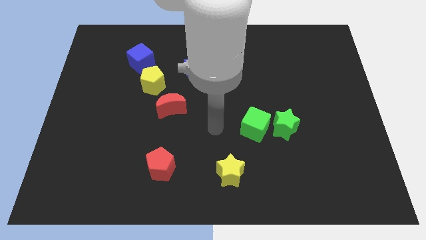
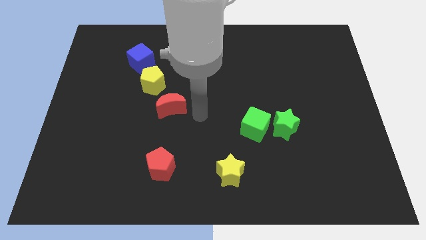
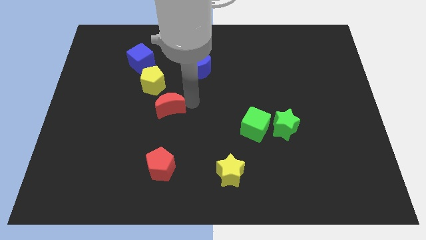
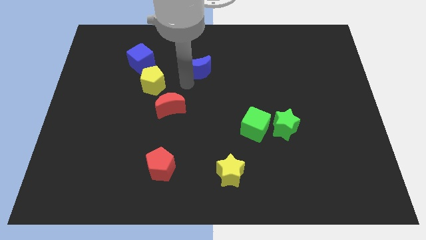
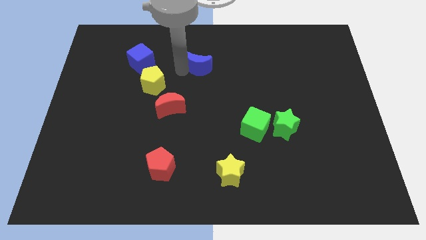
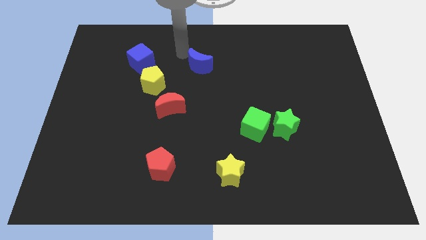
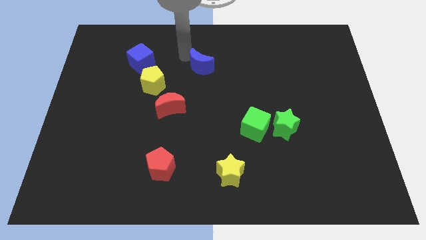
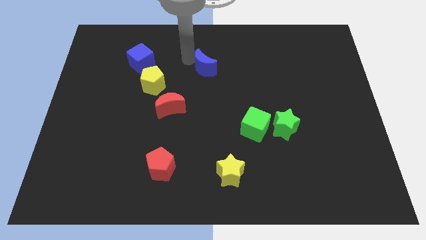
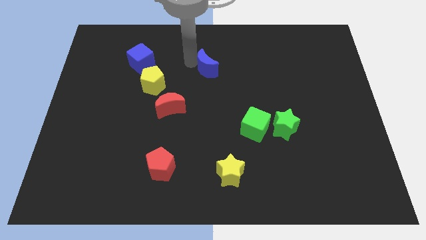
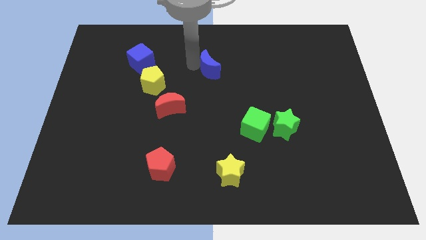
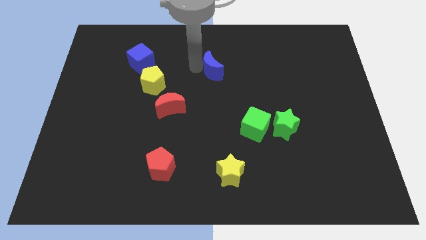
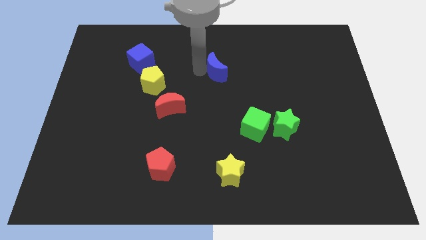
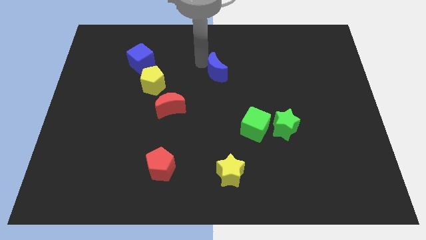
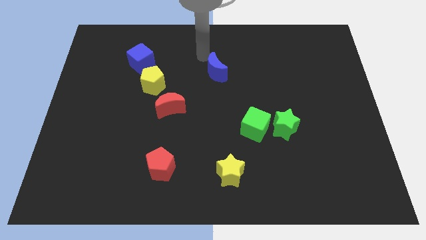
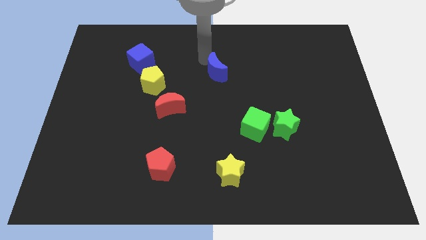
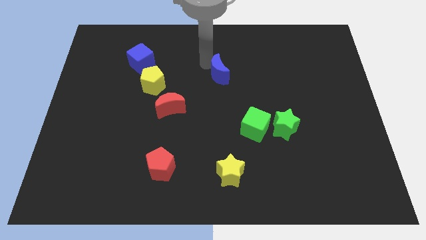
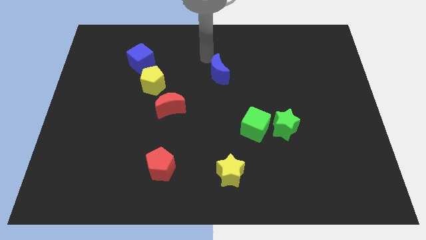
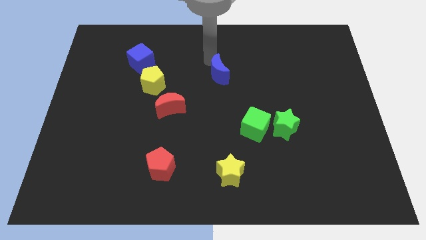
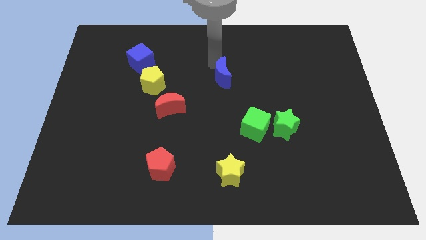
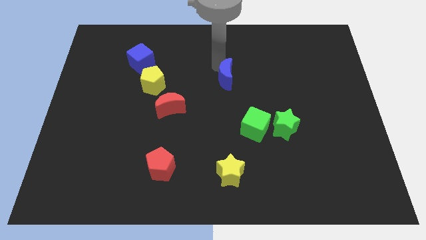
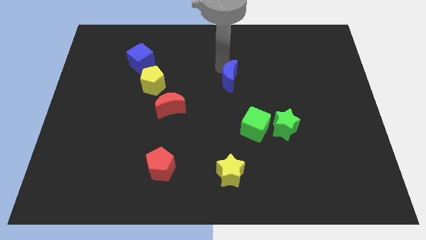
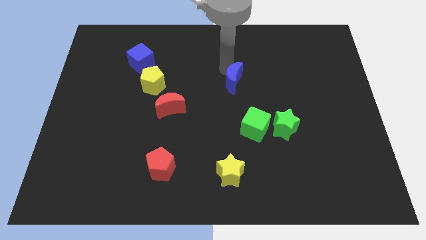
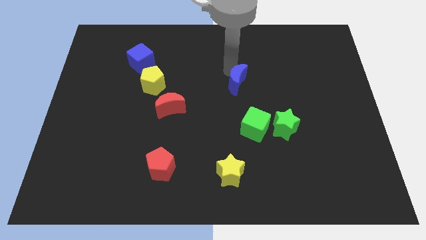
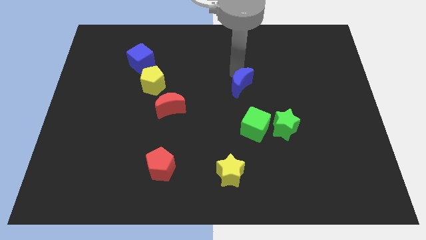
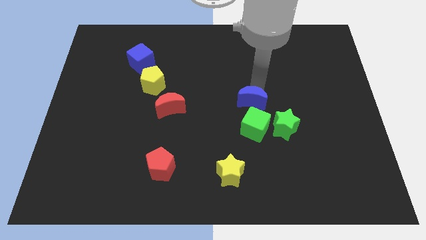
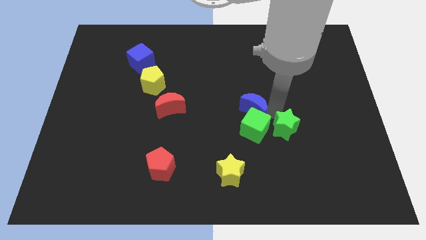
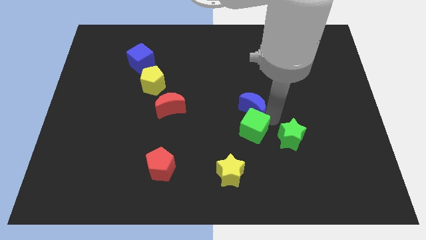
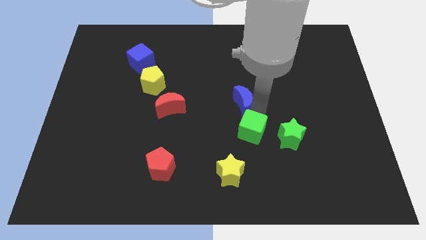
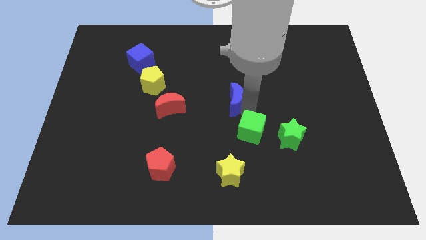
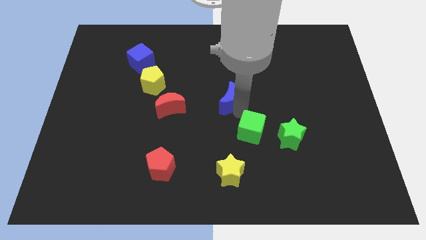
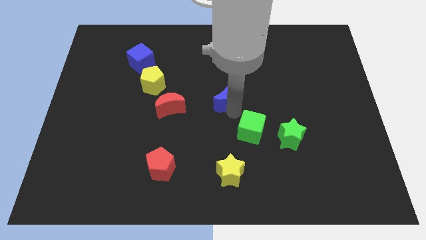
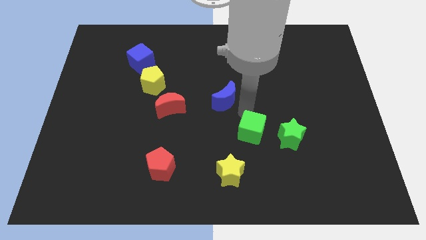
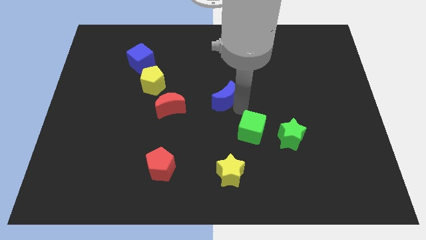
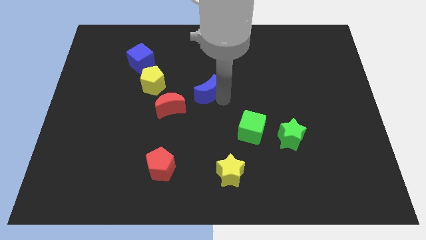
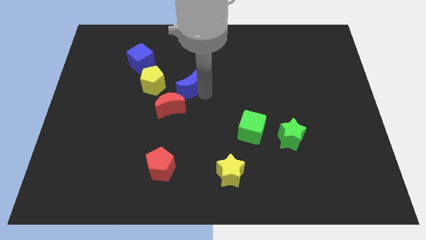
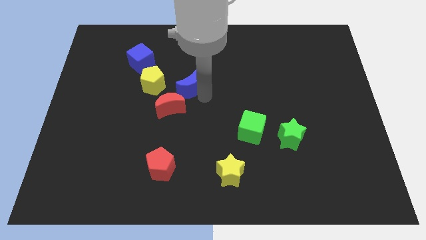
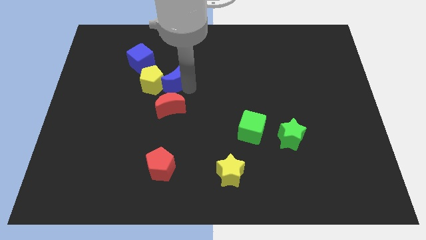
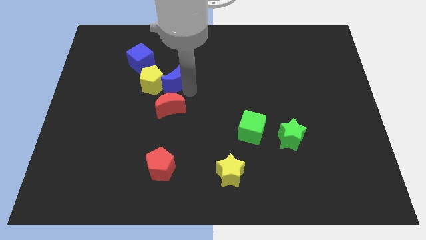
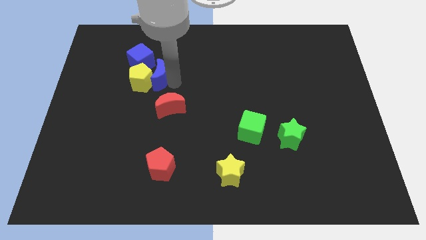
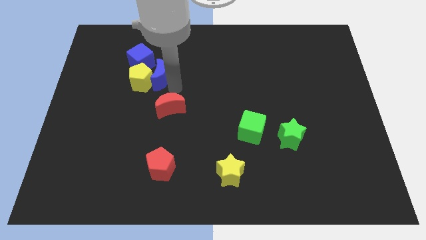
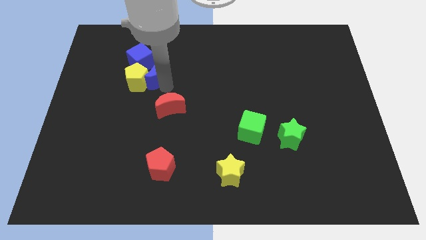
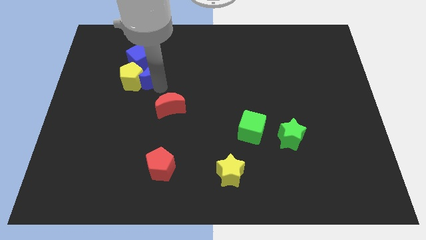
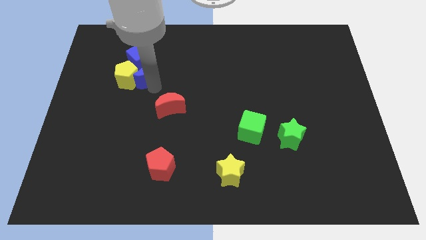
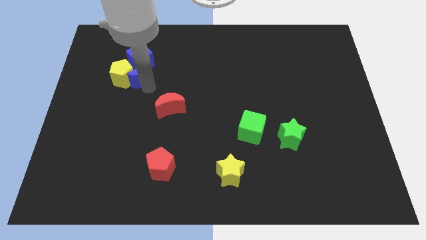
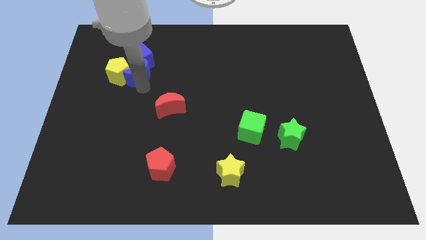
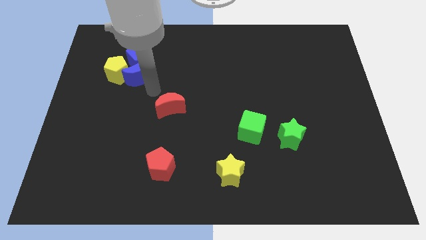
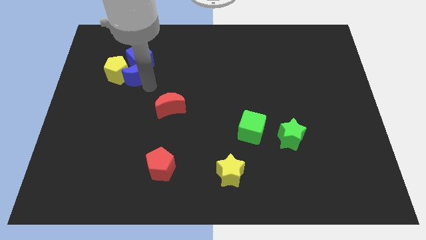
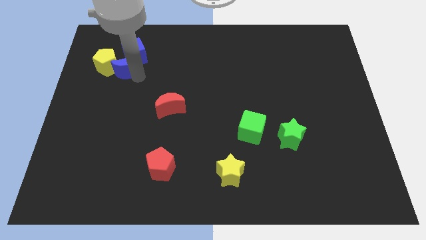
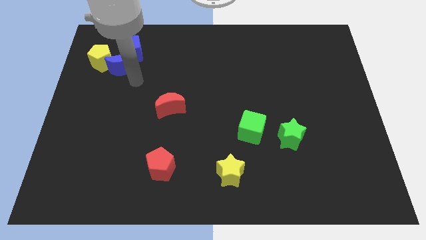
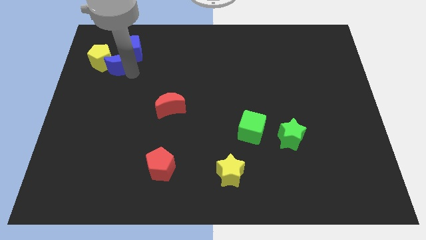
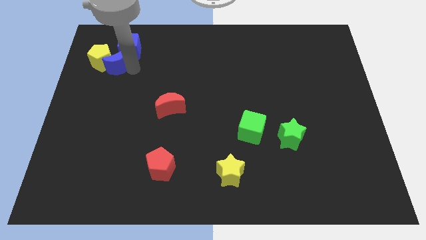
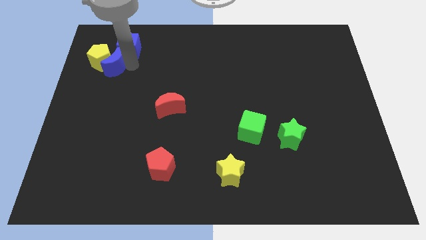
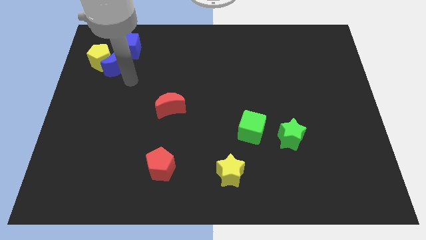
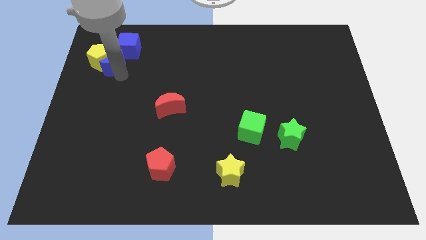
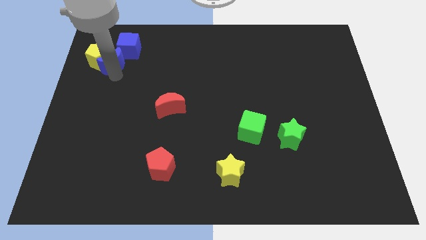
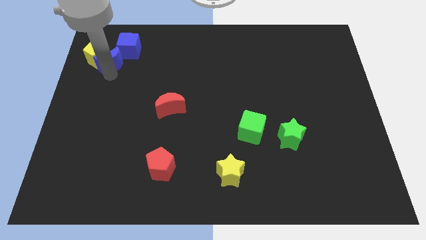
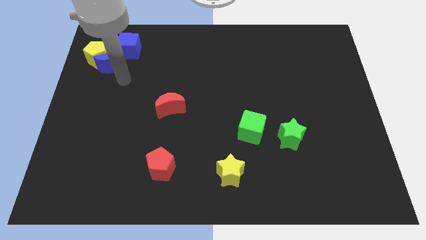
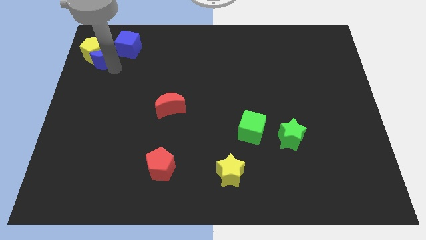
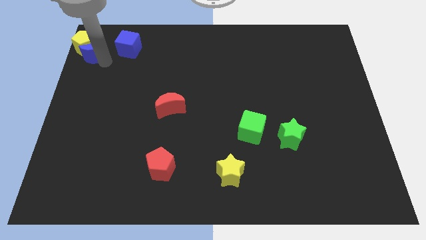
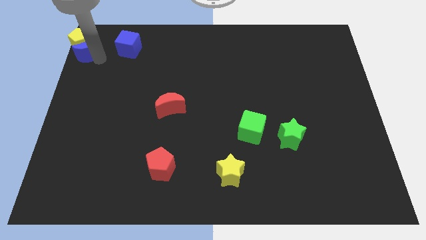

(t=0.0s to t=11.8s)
move the blue moon to the top left

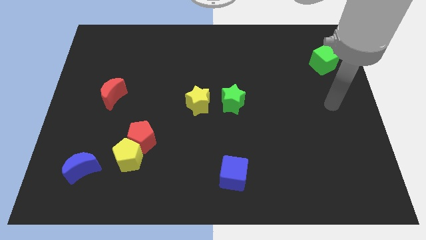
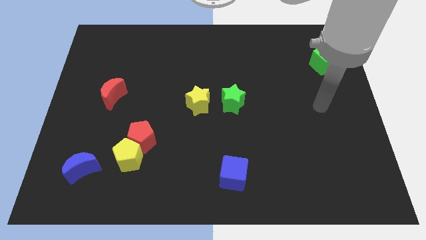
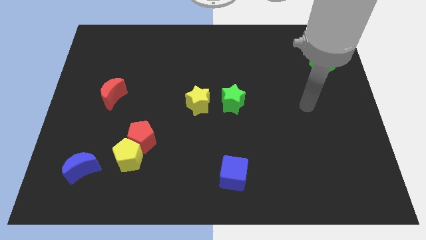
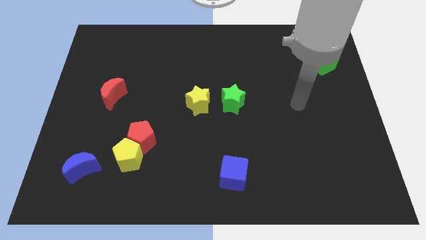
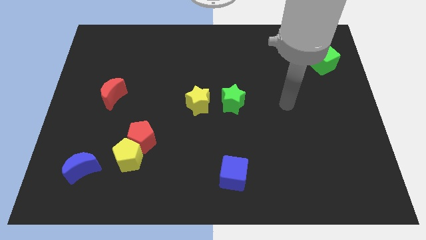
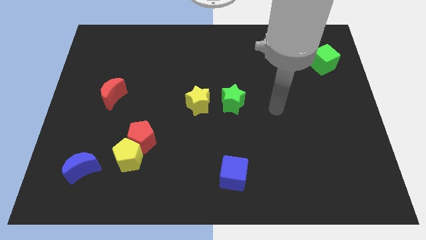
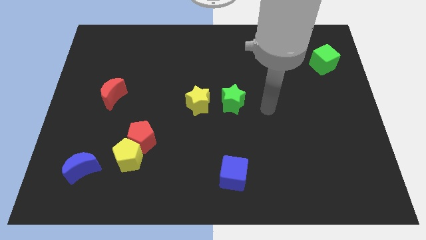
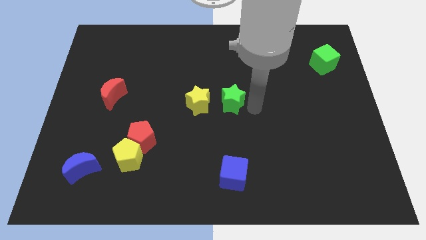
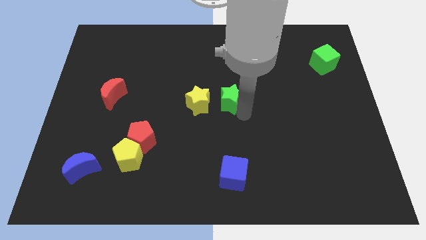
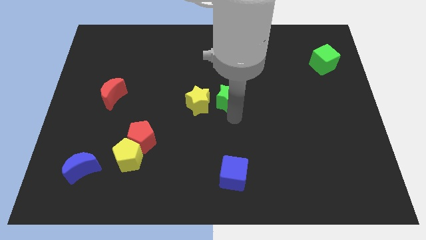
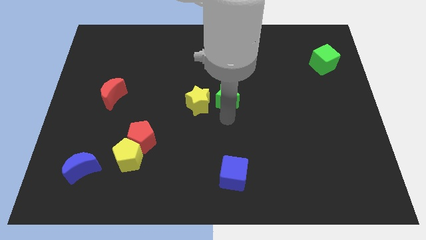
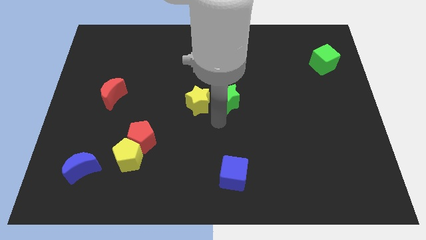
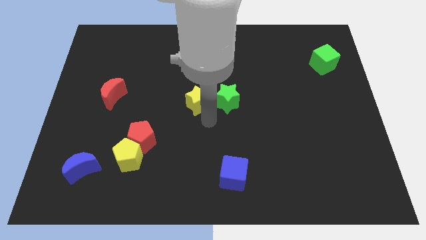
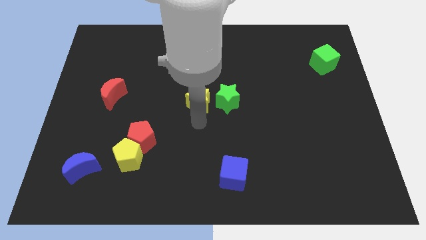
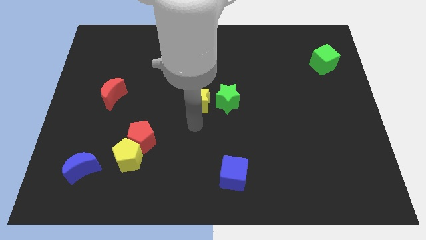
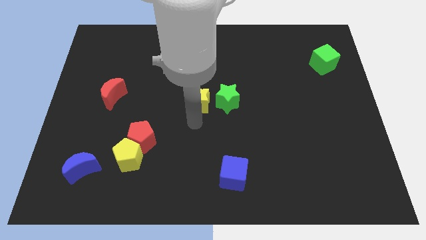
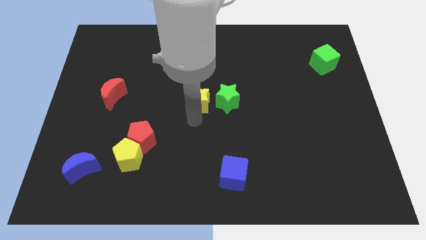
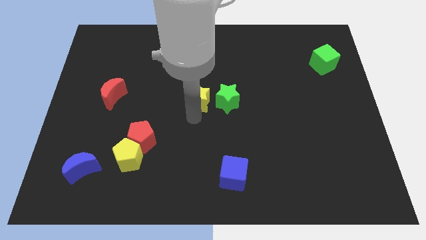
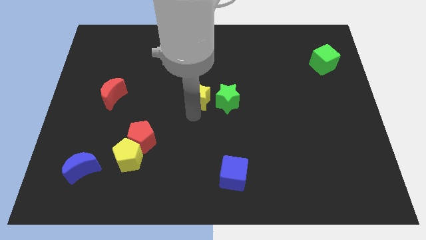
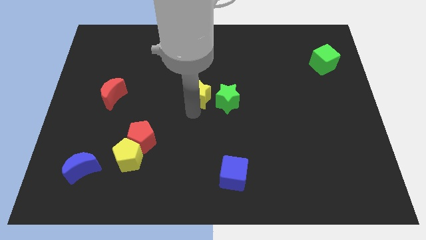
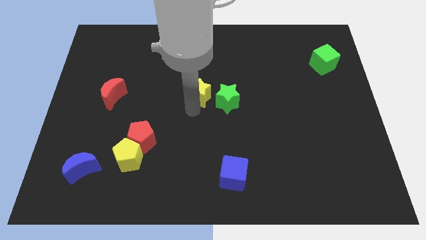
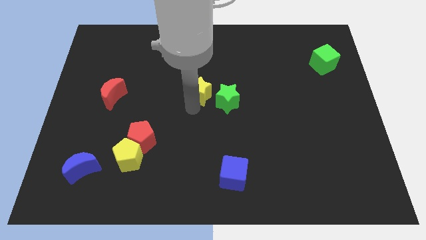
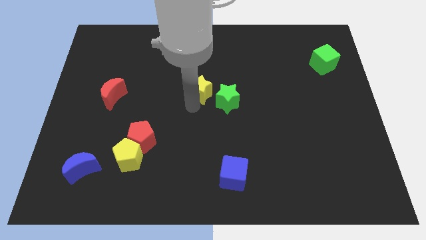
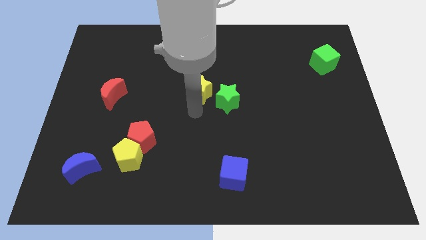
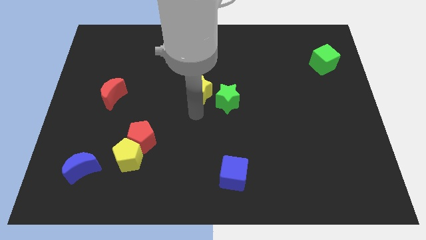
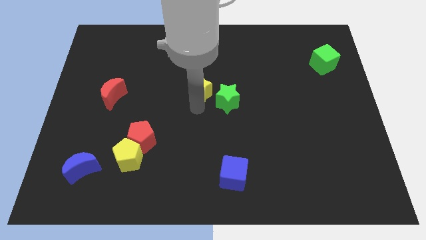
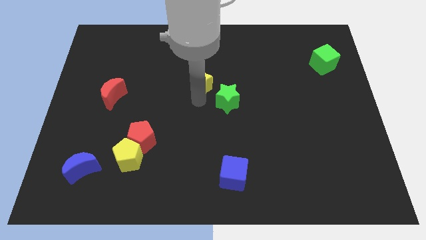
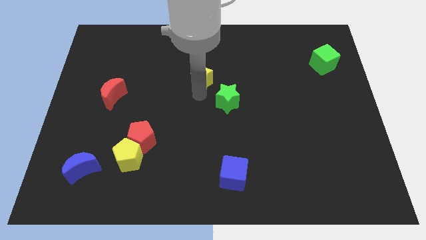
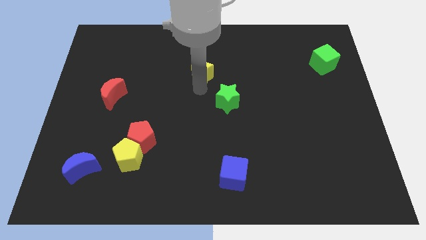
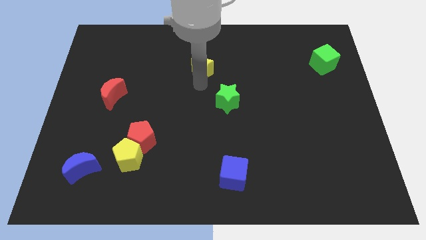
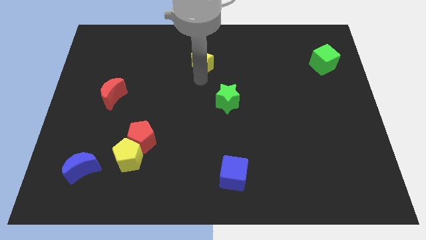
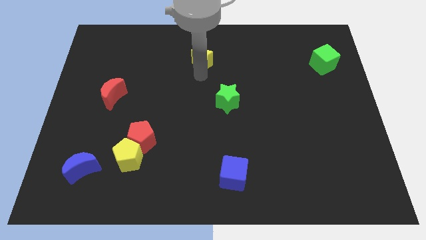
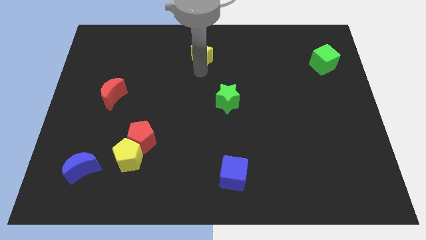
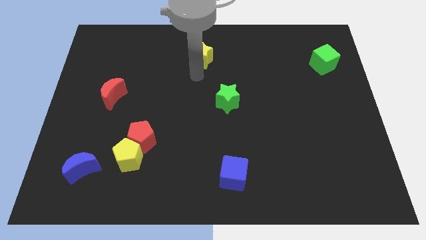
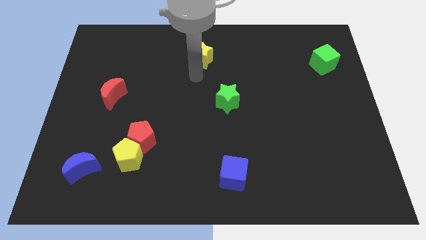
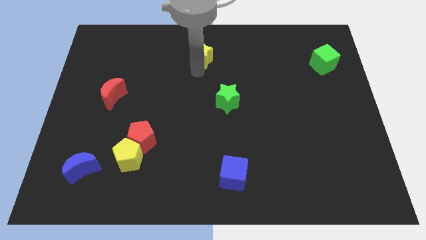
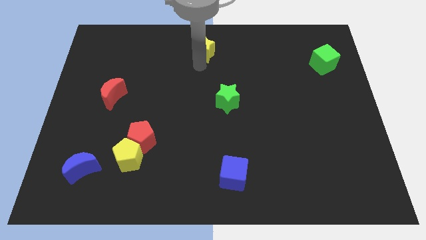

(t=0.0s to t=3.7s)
put the yellow star to the top
